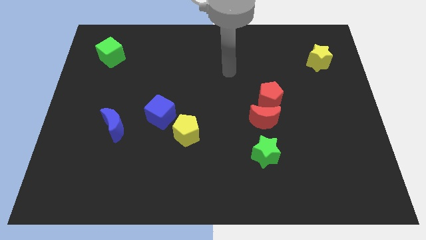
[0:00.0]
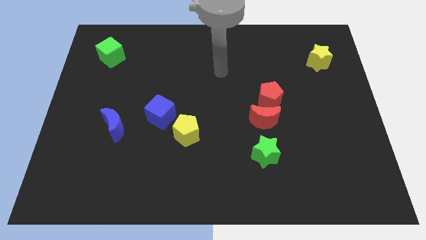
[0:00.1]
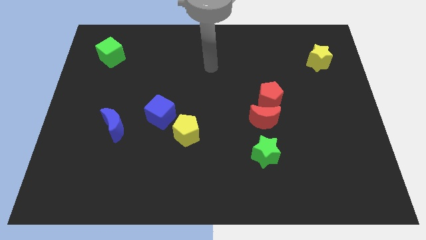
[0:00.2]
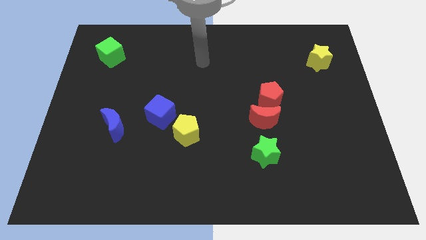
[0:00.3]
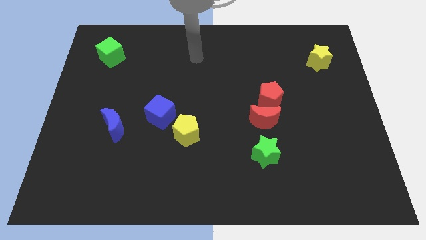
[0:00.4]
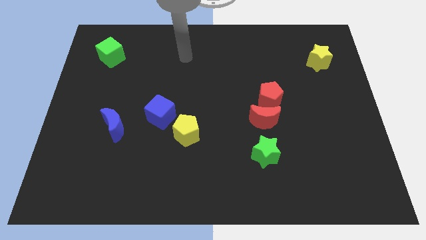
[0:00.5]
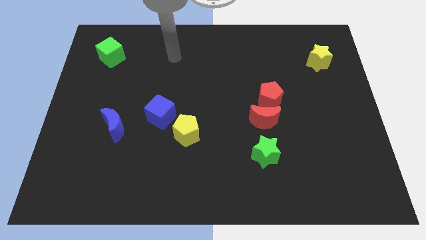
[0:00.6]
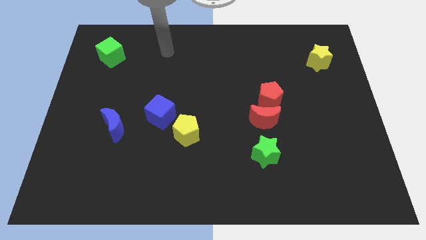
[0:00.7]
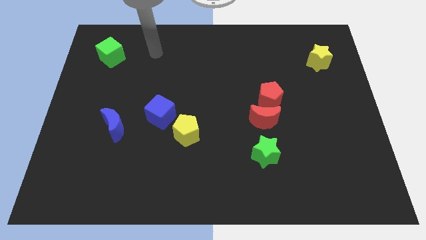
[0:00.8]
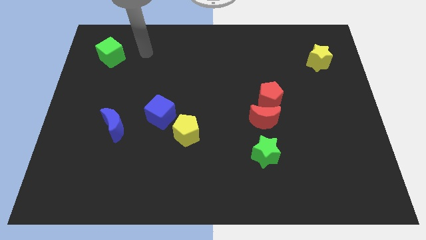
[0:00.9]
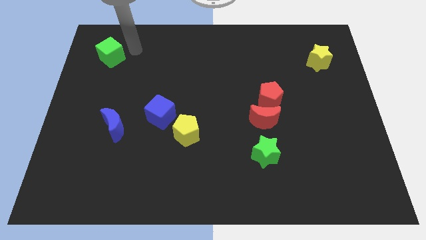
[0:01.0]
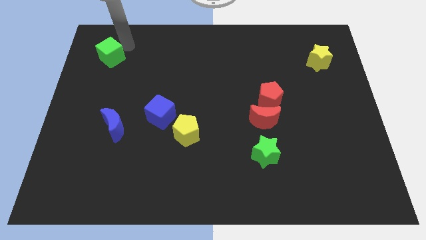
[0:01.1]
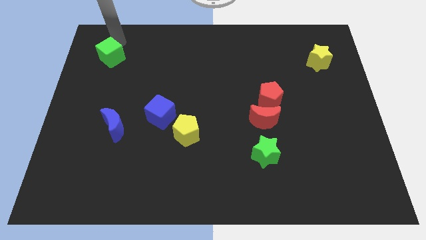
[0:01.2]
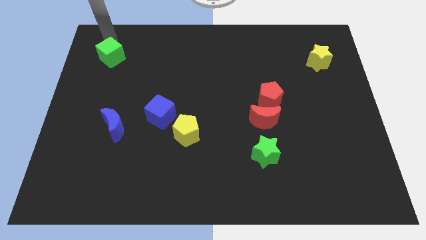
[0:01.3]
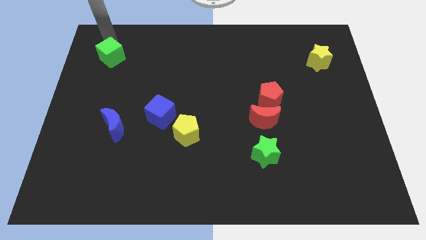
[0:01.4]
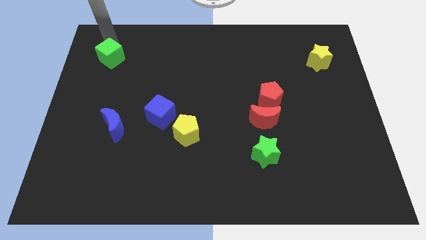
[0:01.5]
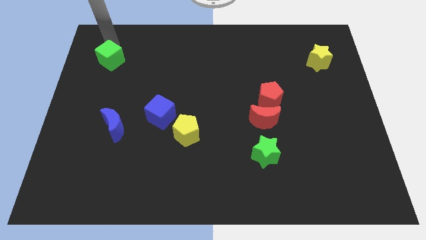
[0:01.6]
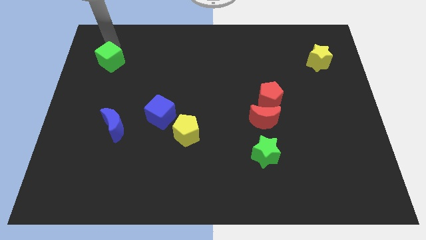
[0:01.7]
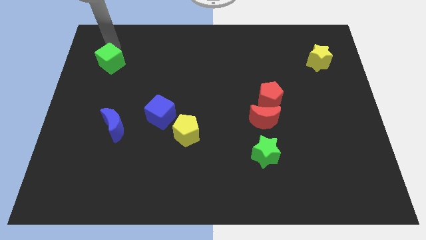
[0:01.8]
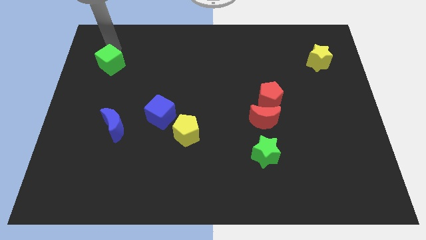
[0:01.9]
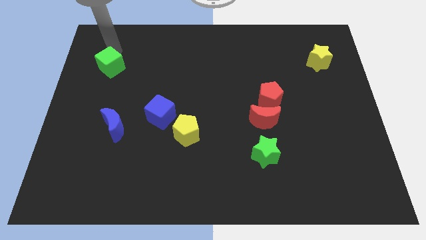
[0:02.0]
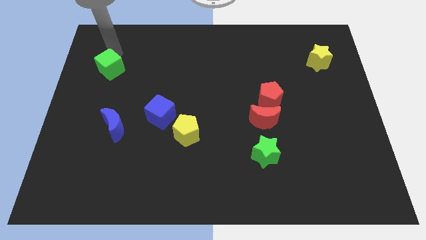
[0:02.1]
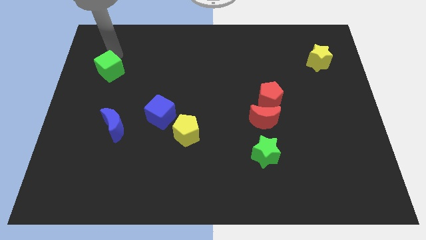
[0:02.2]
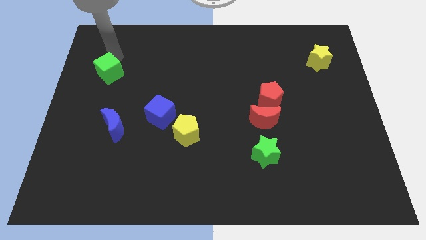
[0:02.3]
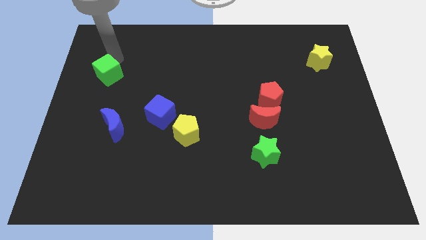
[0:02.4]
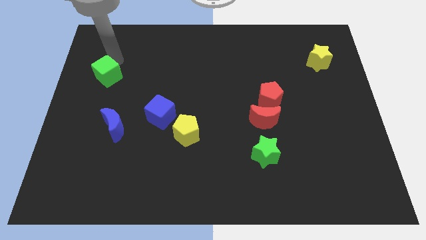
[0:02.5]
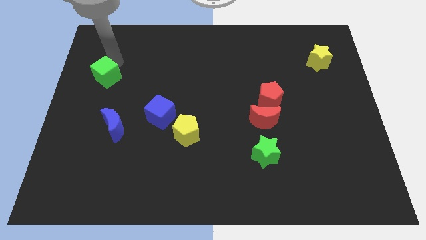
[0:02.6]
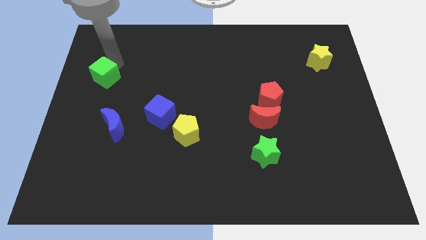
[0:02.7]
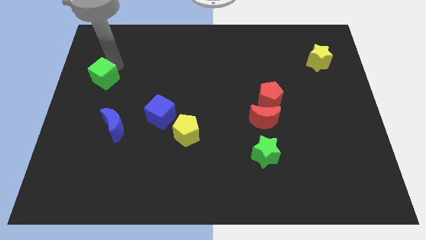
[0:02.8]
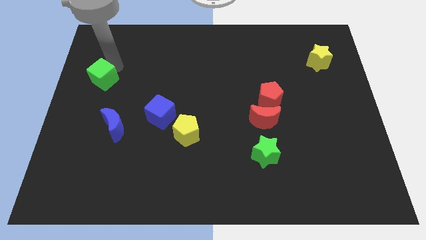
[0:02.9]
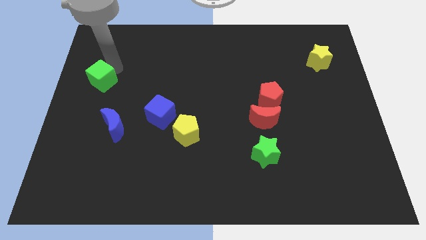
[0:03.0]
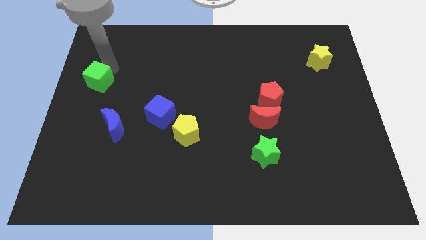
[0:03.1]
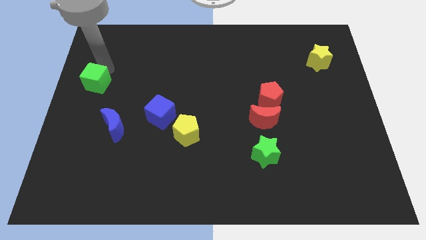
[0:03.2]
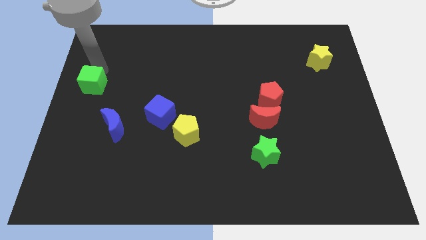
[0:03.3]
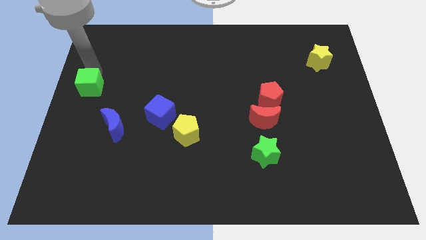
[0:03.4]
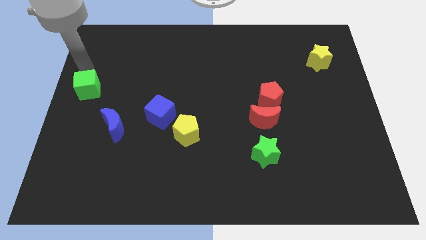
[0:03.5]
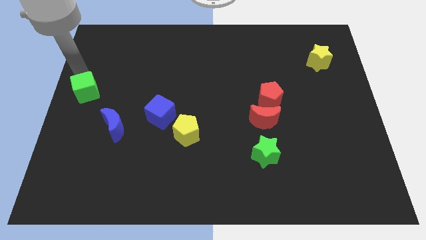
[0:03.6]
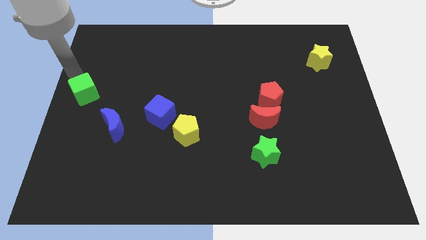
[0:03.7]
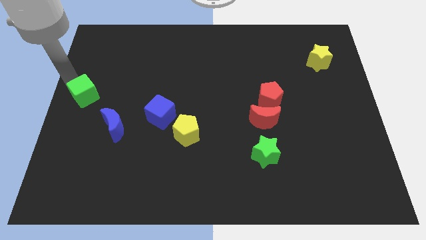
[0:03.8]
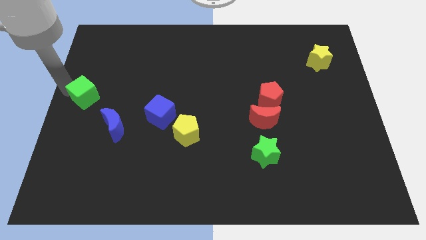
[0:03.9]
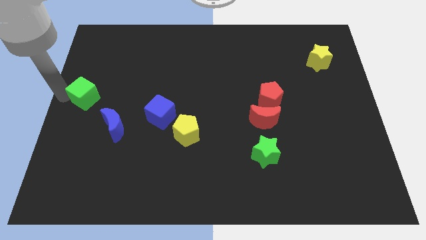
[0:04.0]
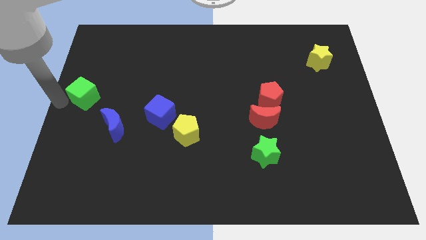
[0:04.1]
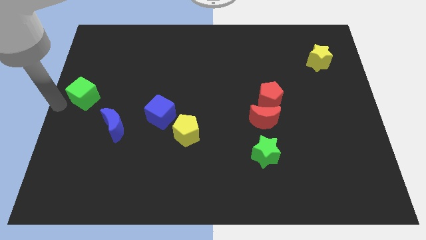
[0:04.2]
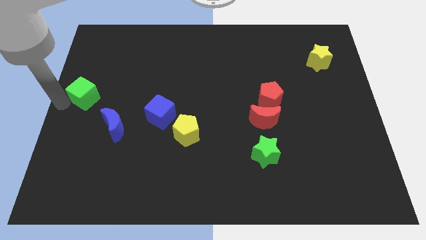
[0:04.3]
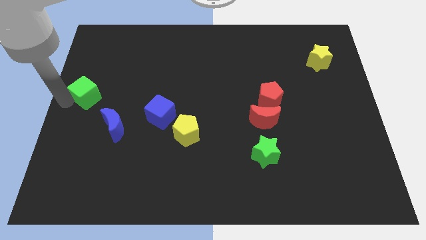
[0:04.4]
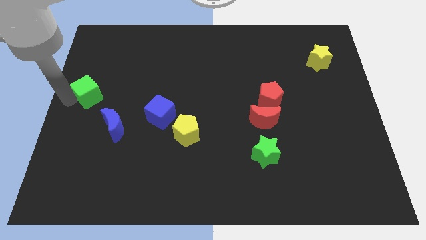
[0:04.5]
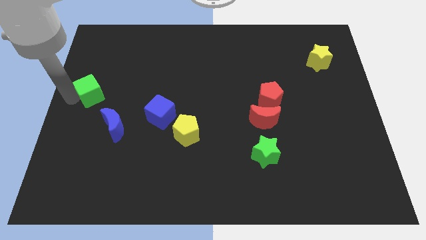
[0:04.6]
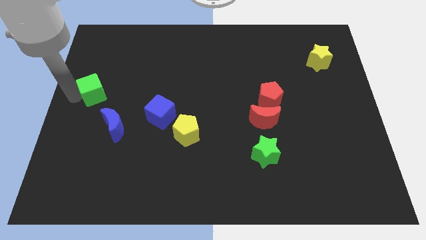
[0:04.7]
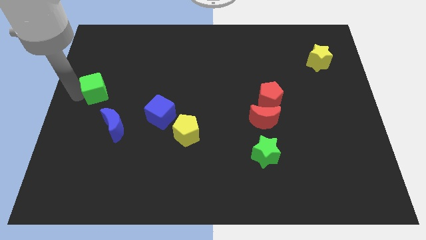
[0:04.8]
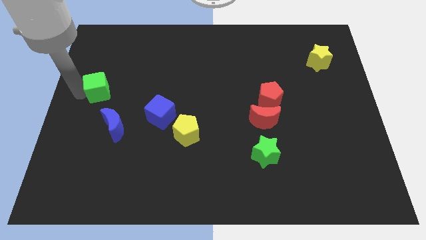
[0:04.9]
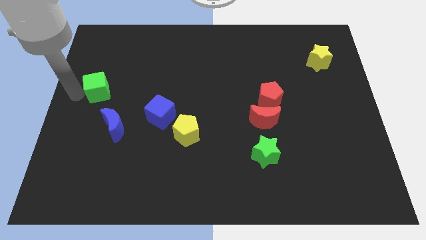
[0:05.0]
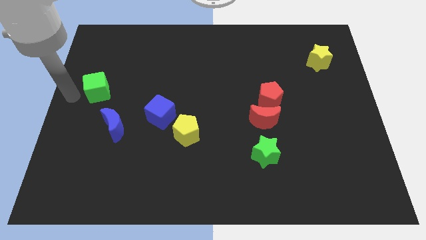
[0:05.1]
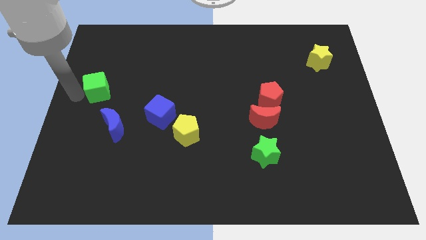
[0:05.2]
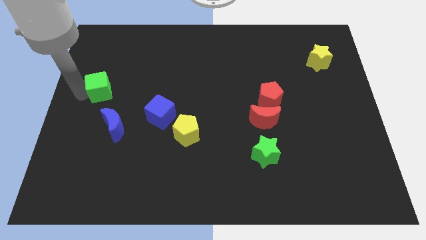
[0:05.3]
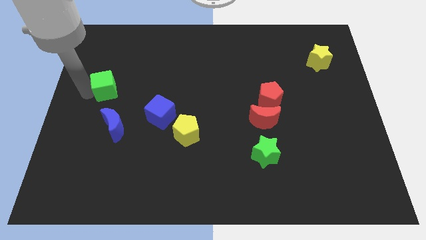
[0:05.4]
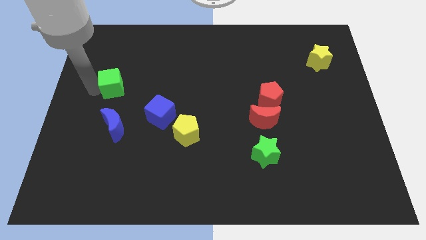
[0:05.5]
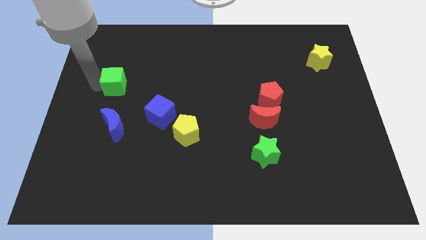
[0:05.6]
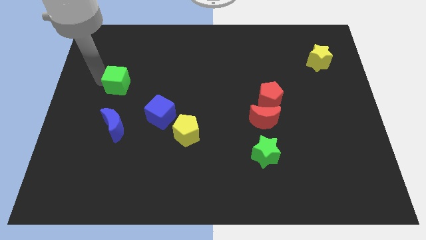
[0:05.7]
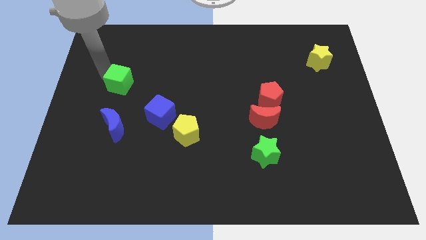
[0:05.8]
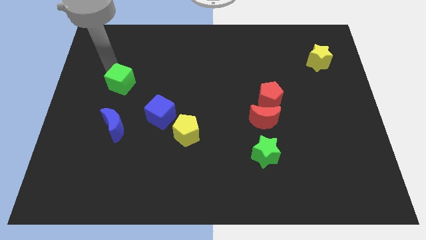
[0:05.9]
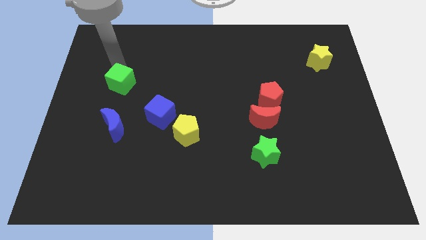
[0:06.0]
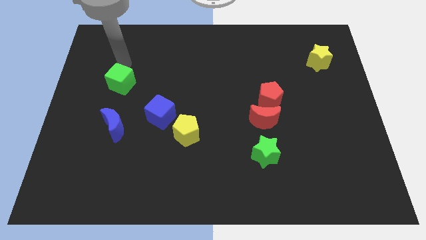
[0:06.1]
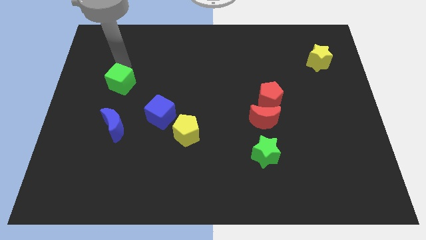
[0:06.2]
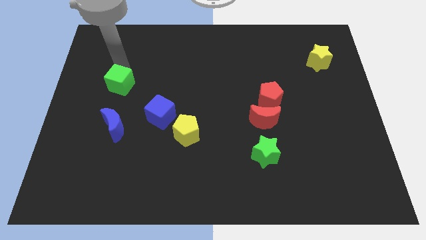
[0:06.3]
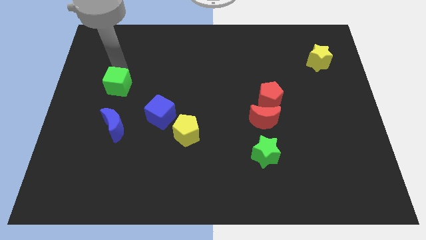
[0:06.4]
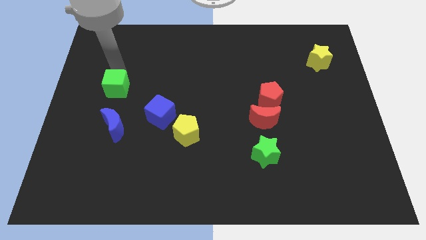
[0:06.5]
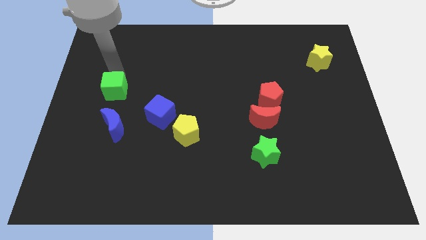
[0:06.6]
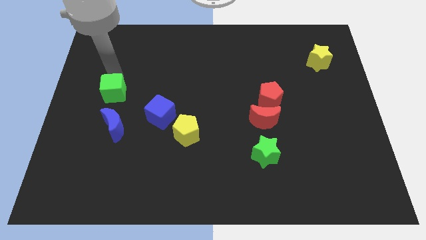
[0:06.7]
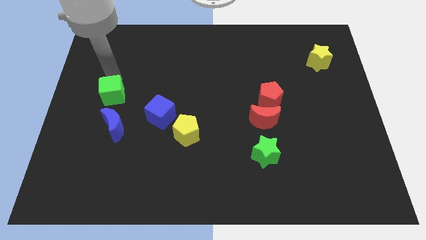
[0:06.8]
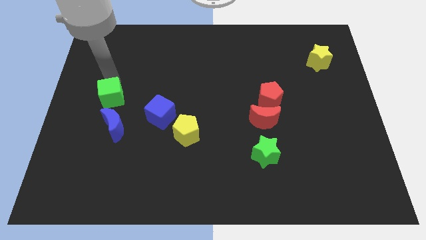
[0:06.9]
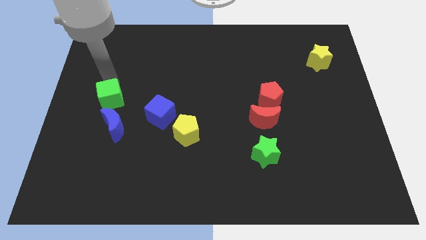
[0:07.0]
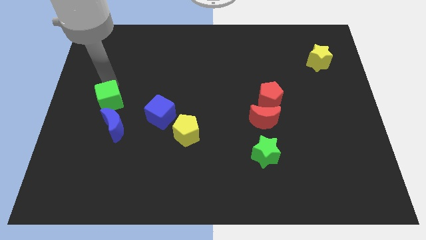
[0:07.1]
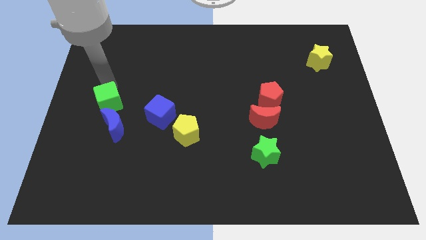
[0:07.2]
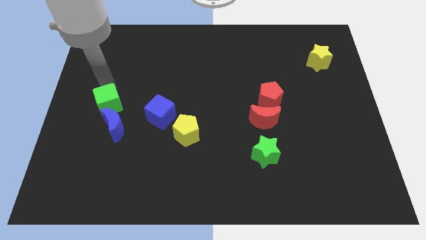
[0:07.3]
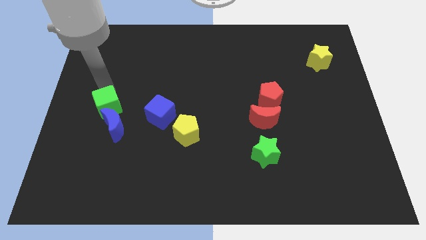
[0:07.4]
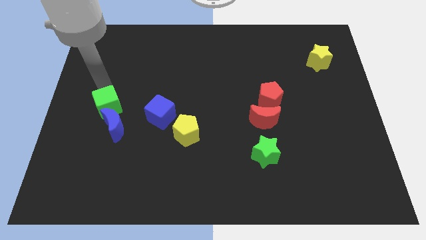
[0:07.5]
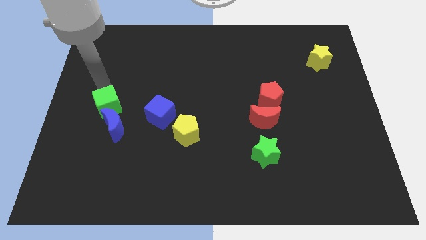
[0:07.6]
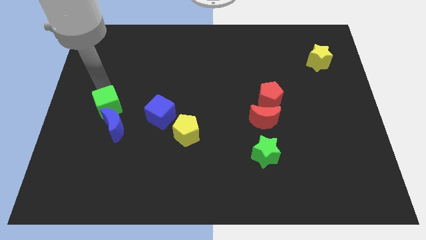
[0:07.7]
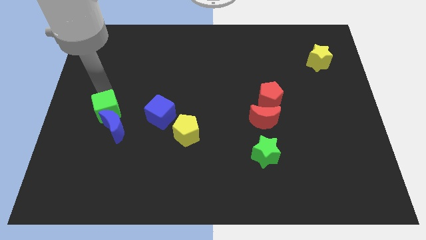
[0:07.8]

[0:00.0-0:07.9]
put the green cube next to the blue moon

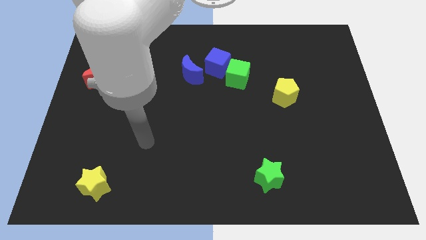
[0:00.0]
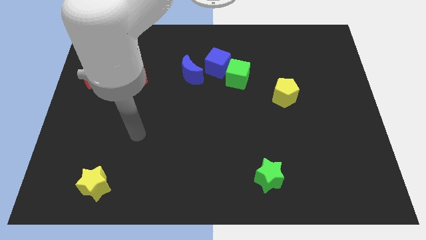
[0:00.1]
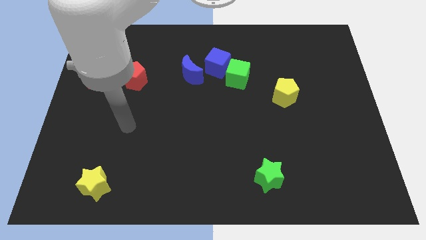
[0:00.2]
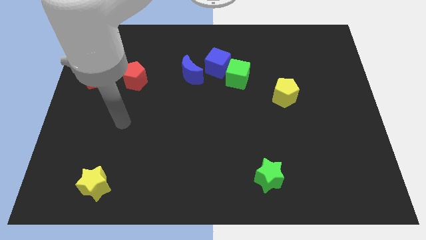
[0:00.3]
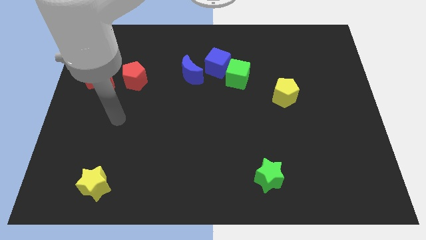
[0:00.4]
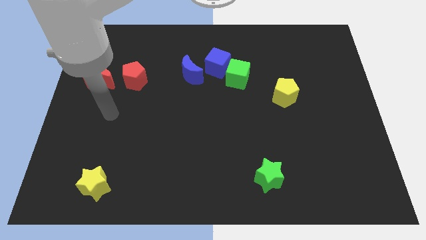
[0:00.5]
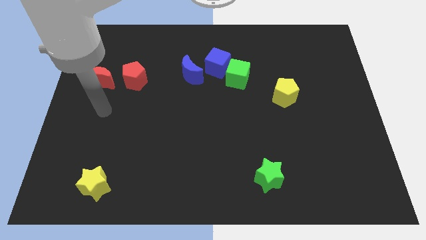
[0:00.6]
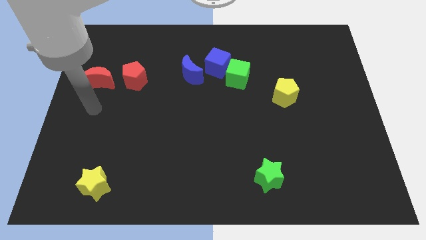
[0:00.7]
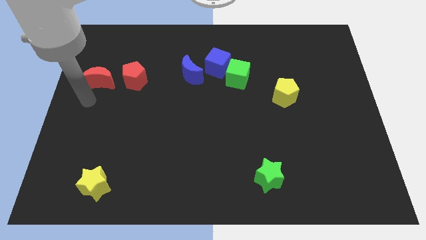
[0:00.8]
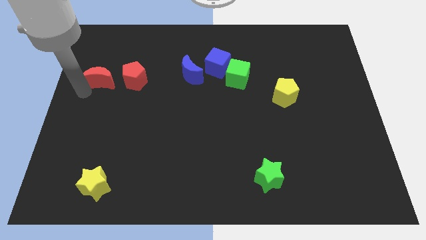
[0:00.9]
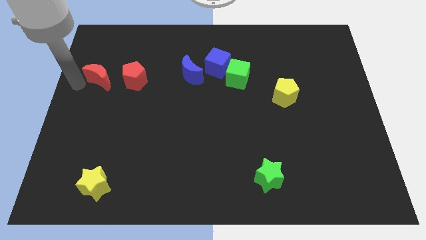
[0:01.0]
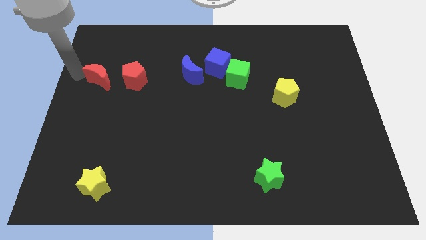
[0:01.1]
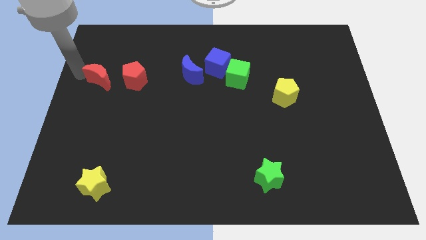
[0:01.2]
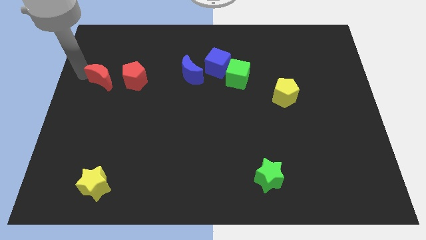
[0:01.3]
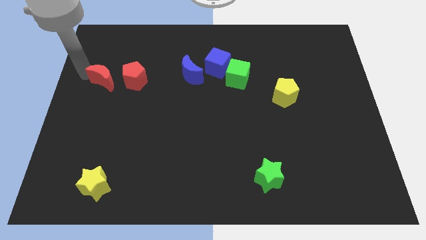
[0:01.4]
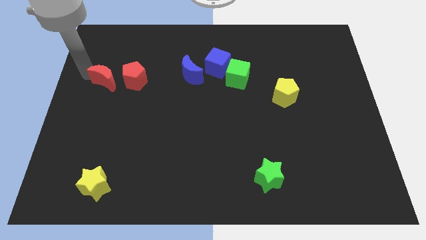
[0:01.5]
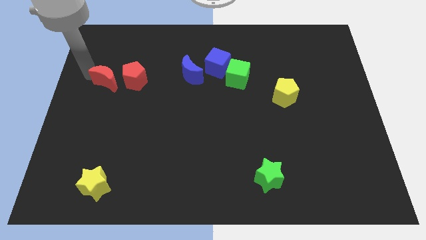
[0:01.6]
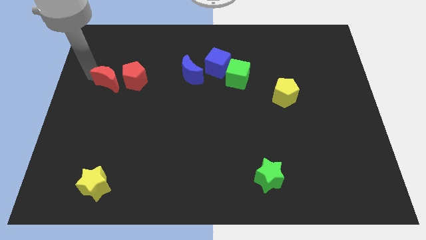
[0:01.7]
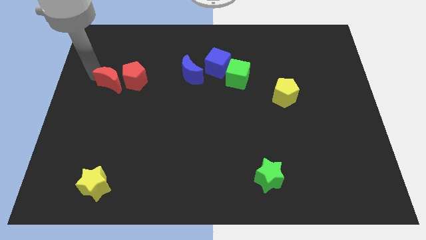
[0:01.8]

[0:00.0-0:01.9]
move the red moon towards the red pentagon
